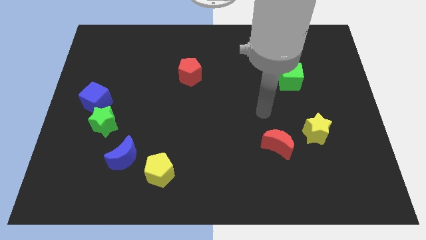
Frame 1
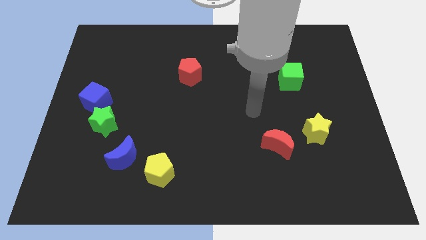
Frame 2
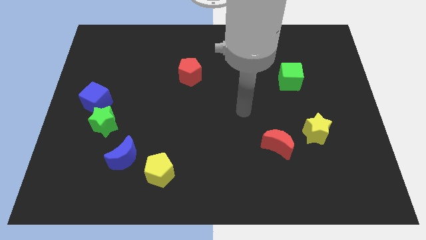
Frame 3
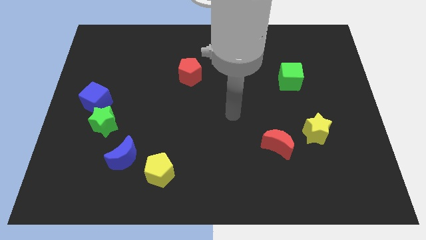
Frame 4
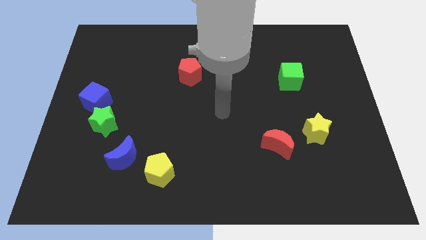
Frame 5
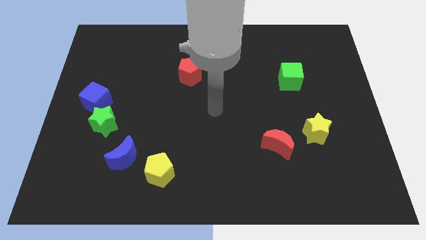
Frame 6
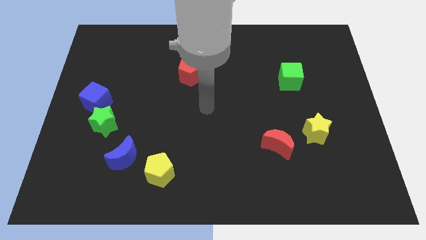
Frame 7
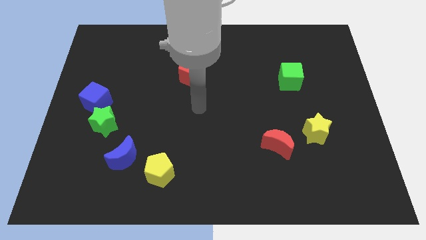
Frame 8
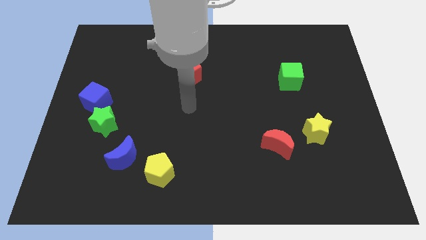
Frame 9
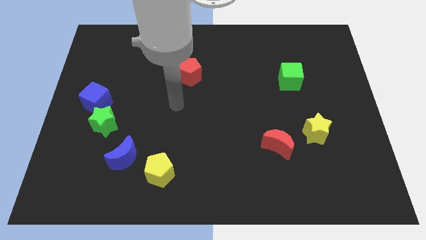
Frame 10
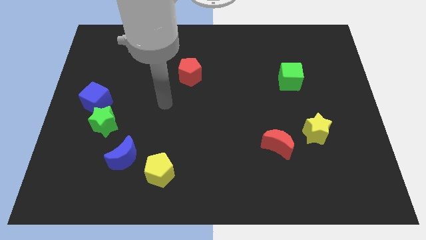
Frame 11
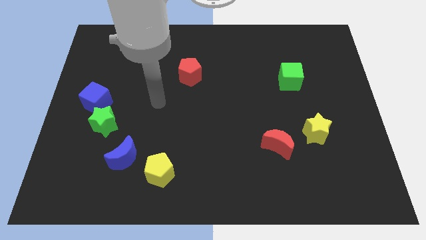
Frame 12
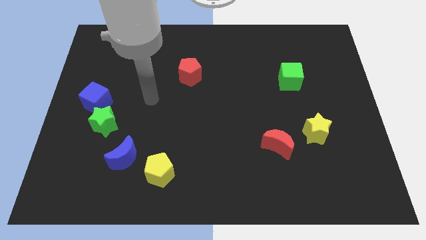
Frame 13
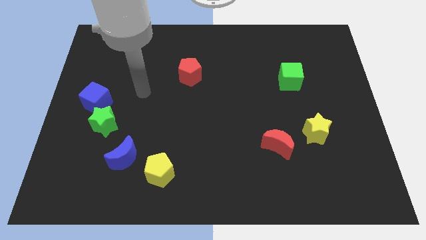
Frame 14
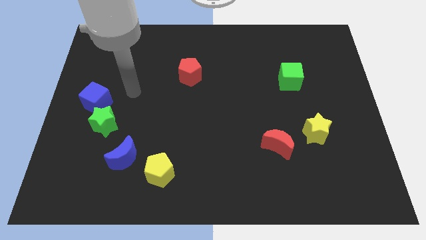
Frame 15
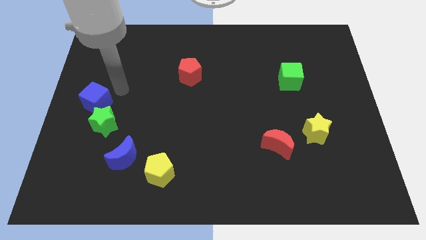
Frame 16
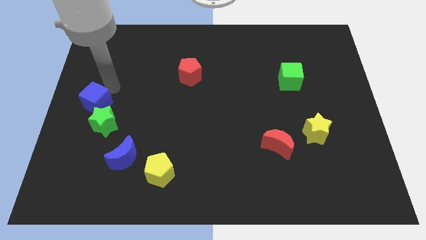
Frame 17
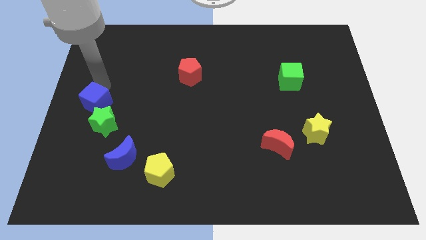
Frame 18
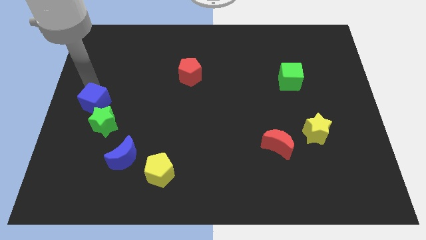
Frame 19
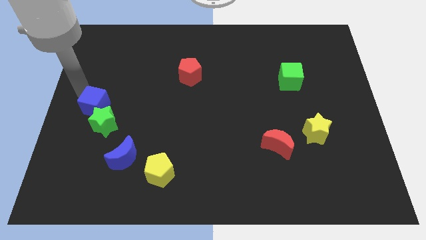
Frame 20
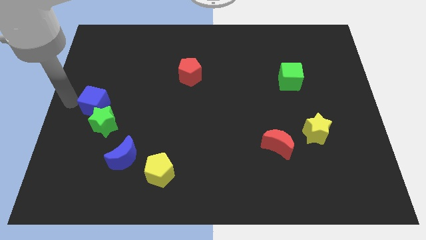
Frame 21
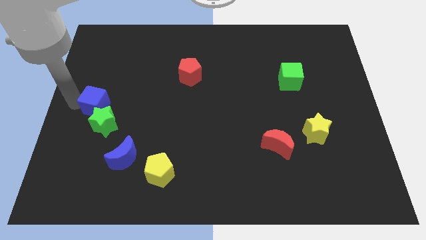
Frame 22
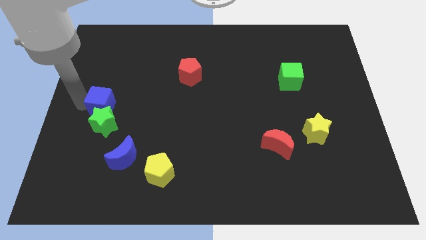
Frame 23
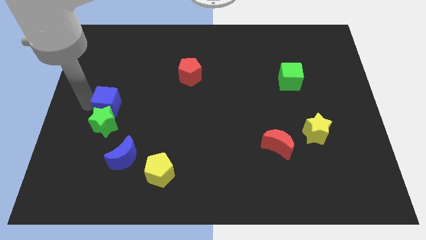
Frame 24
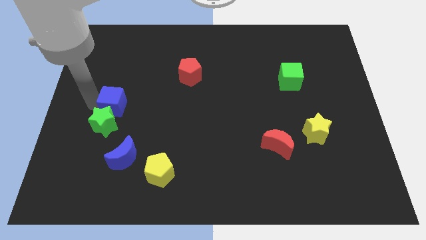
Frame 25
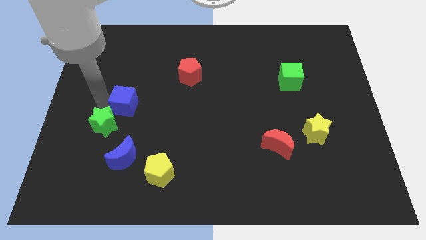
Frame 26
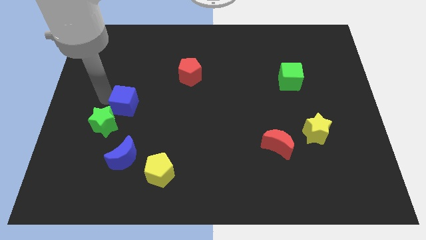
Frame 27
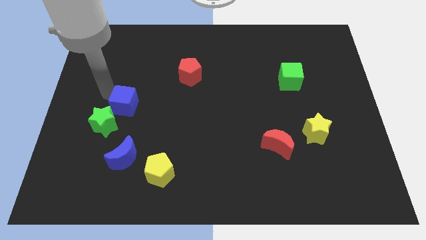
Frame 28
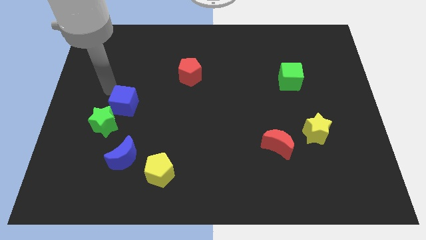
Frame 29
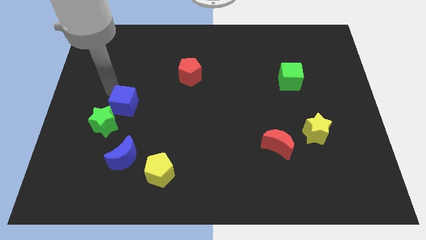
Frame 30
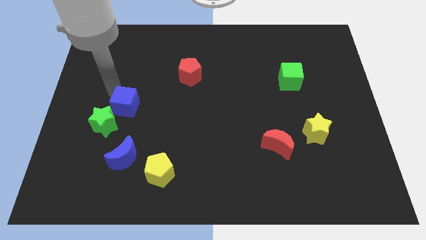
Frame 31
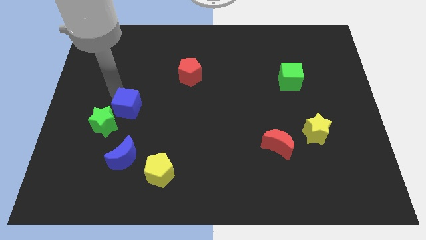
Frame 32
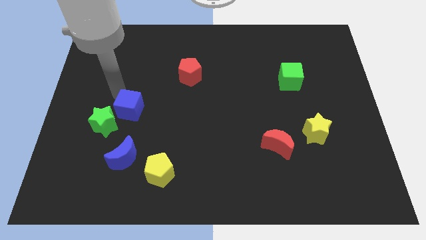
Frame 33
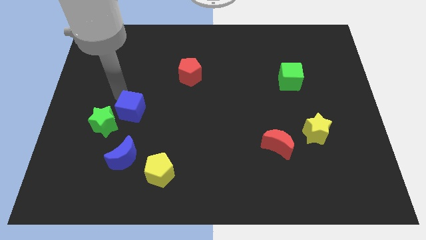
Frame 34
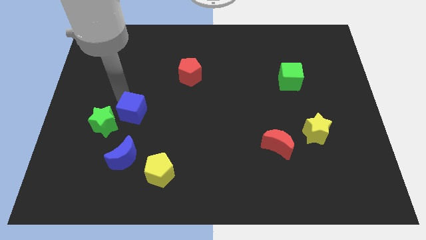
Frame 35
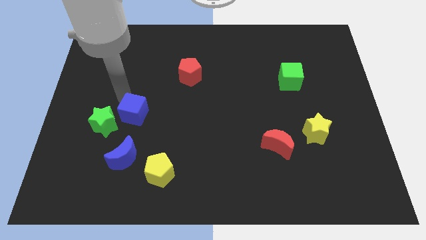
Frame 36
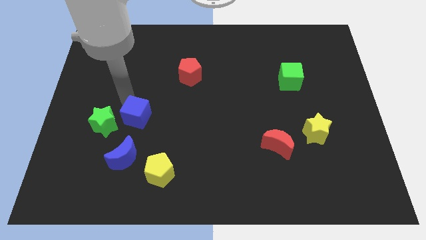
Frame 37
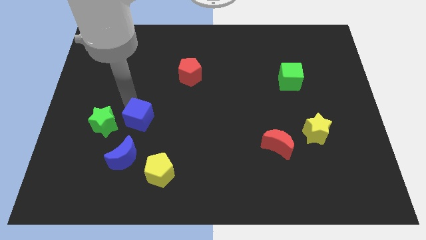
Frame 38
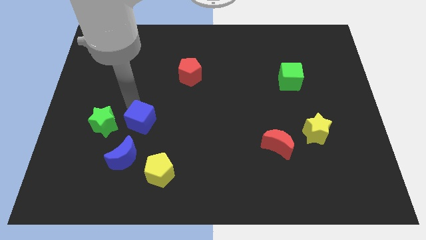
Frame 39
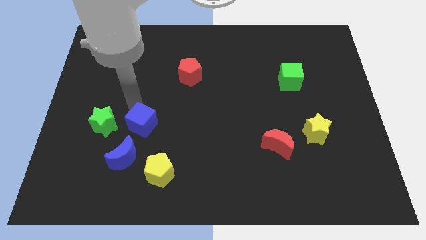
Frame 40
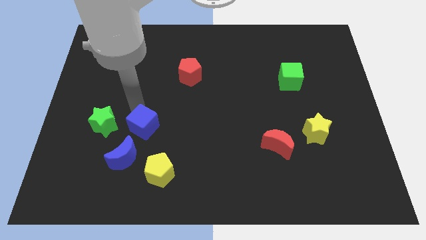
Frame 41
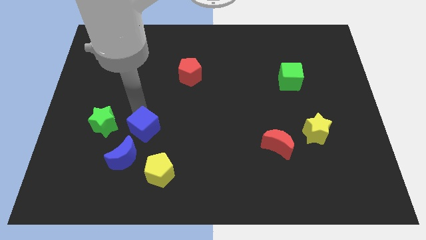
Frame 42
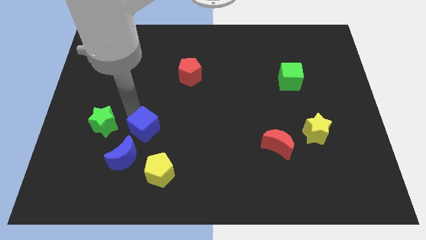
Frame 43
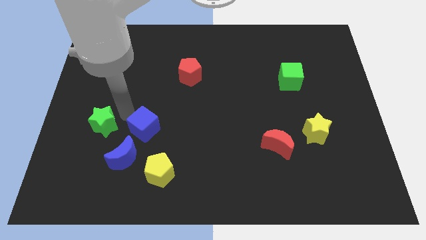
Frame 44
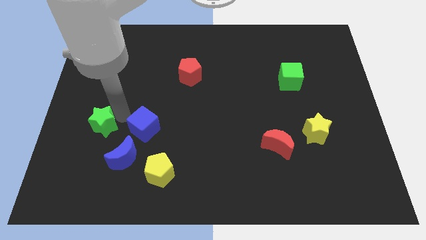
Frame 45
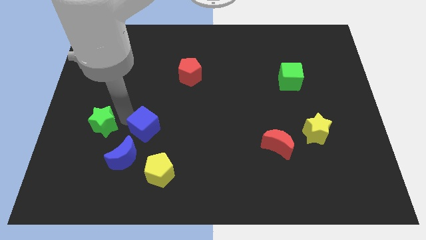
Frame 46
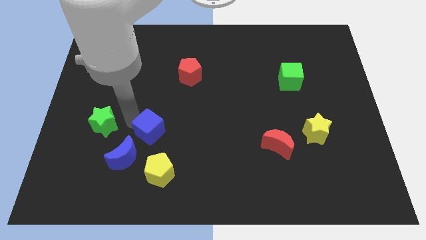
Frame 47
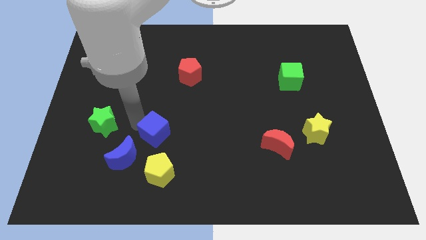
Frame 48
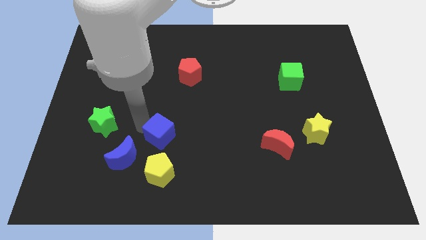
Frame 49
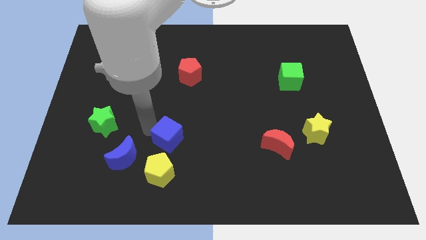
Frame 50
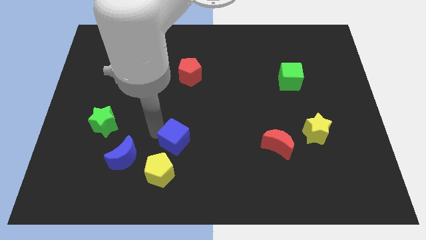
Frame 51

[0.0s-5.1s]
slide the blue cube diagonally up and to the right of the yellow pentagon

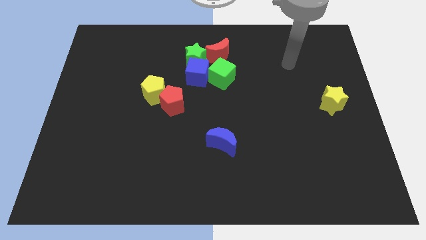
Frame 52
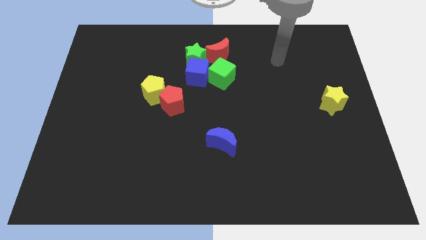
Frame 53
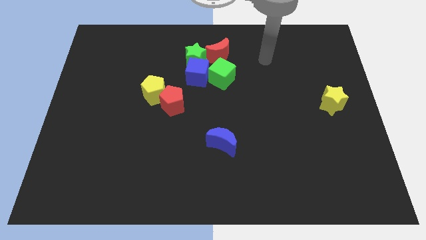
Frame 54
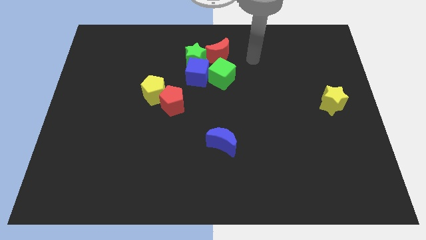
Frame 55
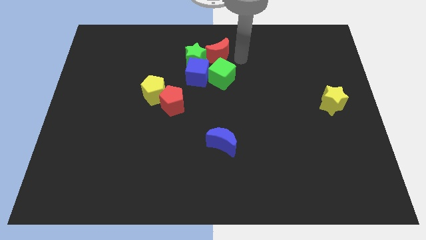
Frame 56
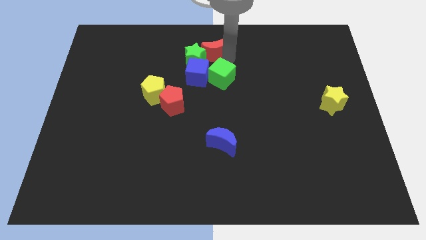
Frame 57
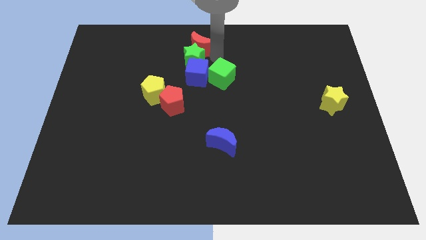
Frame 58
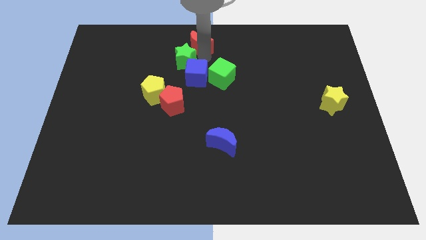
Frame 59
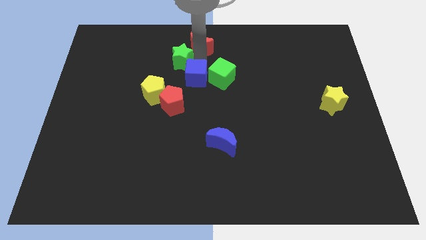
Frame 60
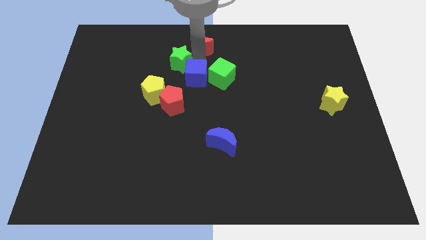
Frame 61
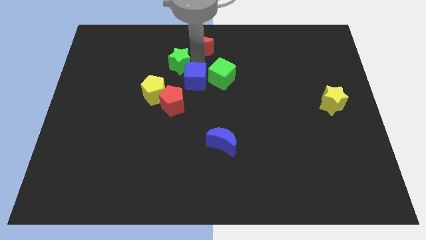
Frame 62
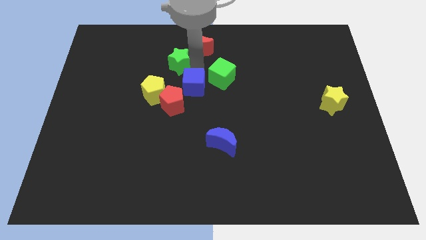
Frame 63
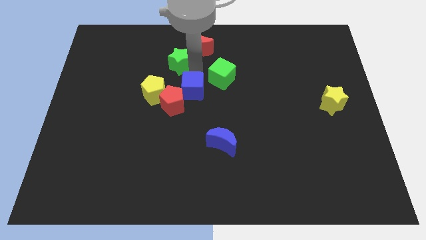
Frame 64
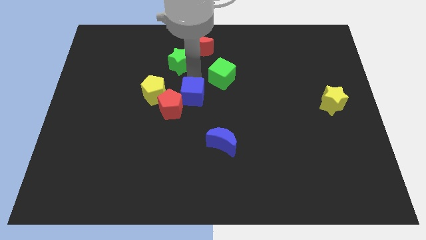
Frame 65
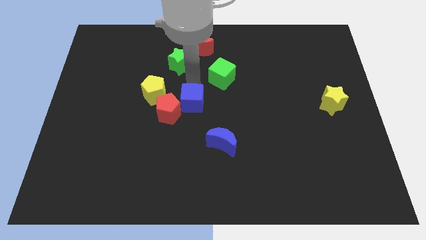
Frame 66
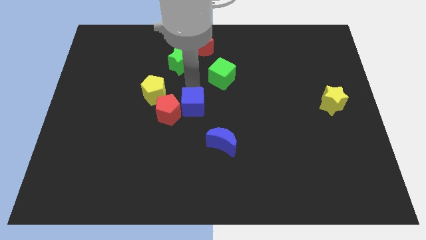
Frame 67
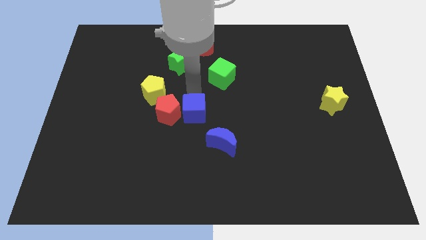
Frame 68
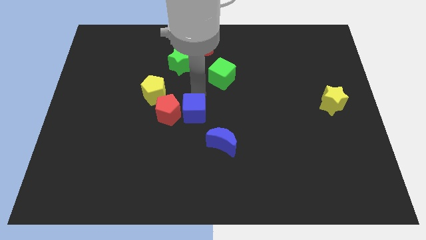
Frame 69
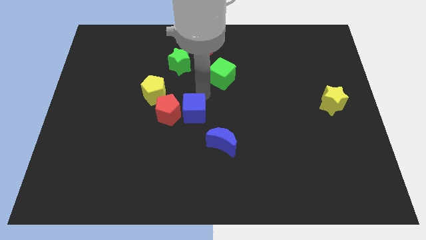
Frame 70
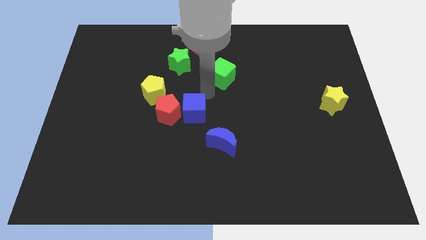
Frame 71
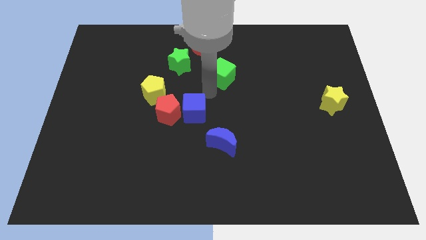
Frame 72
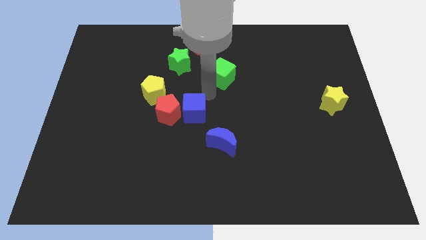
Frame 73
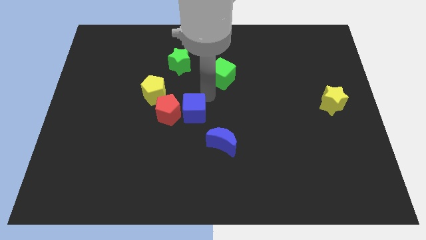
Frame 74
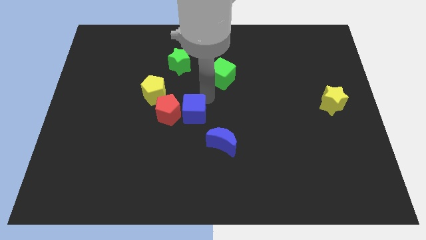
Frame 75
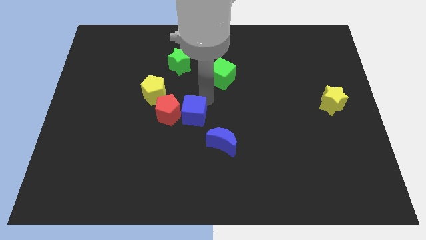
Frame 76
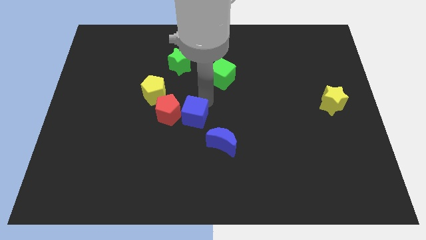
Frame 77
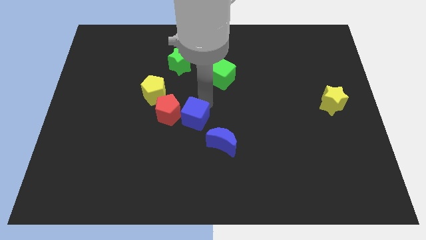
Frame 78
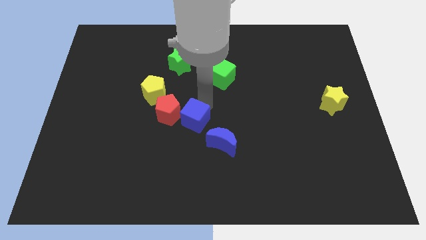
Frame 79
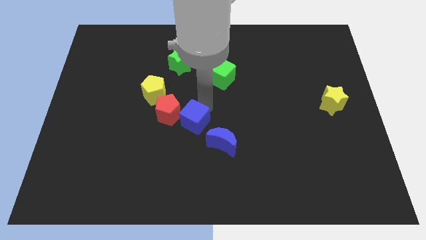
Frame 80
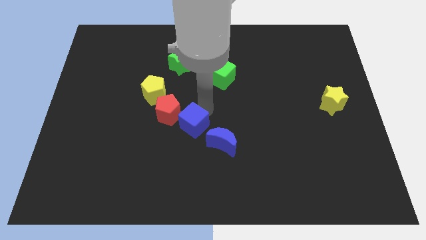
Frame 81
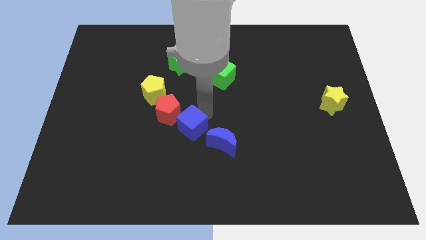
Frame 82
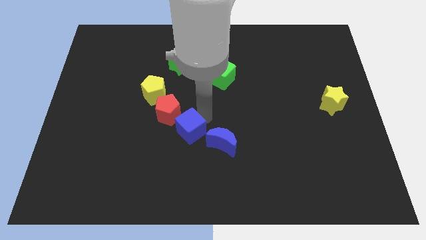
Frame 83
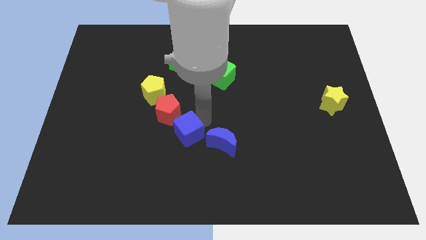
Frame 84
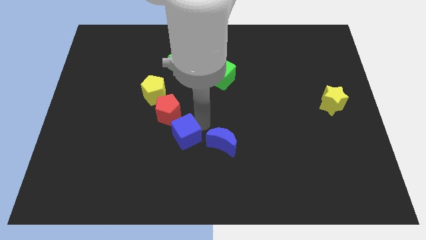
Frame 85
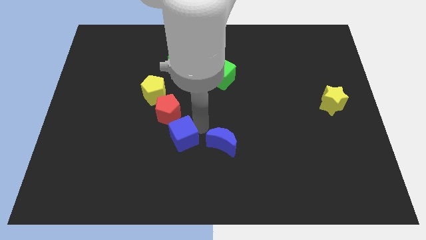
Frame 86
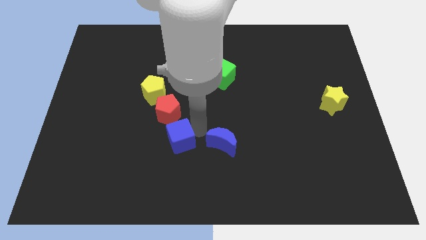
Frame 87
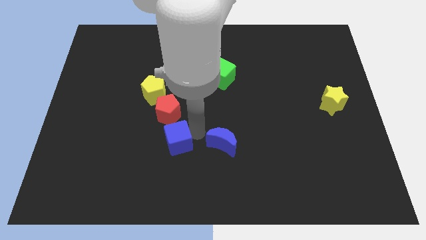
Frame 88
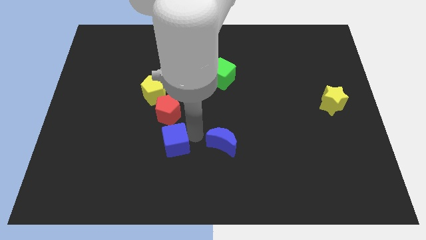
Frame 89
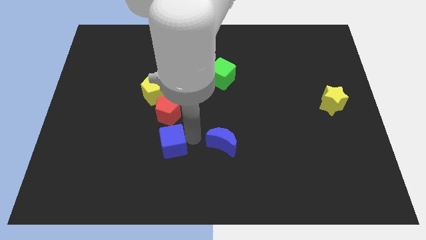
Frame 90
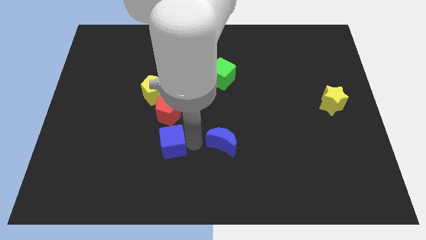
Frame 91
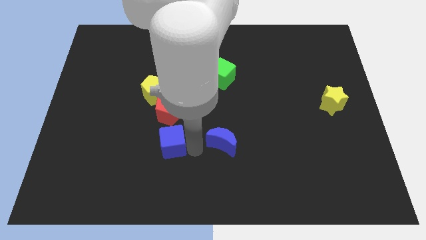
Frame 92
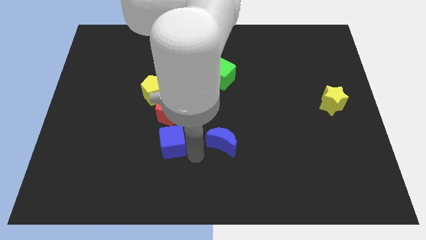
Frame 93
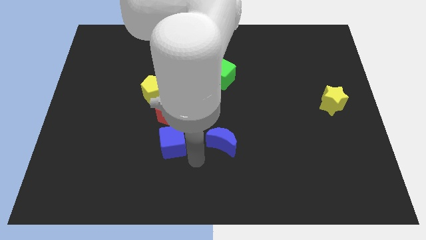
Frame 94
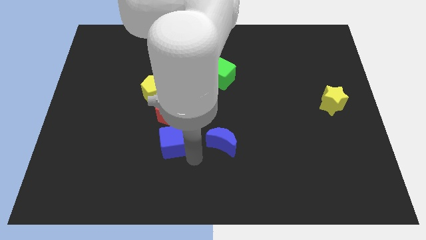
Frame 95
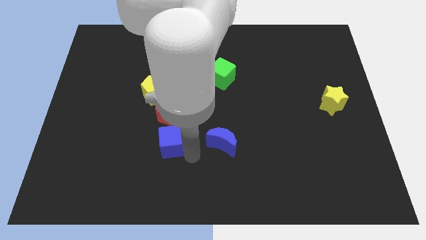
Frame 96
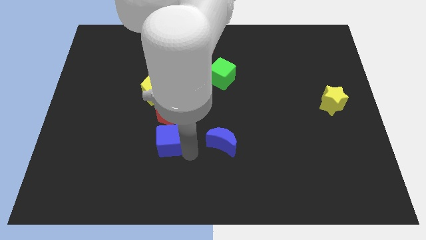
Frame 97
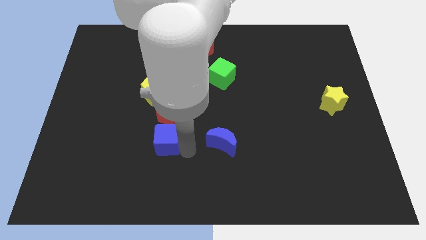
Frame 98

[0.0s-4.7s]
move the blue cube below the yellow pentagon
